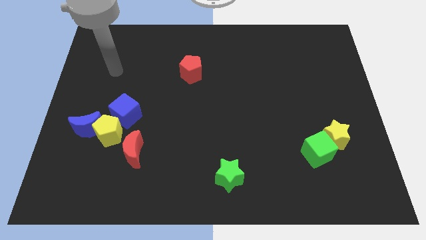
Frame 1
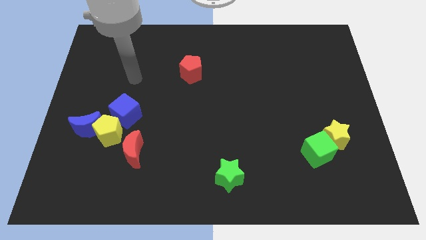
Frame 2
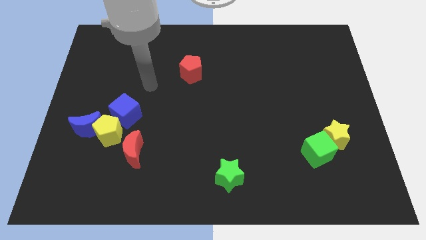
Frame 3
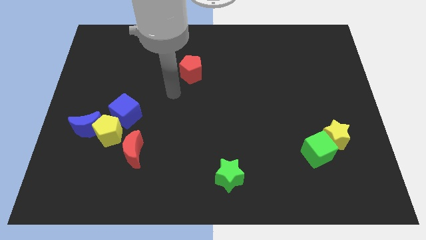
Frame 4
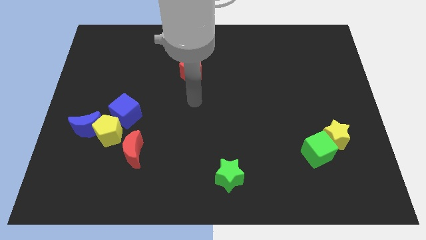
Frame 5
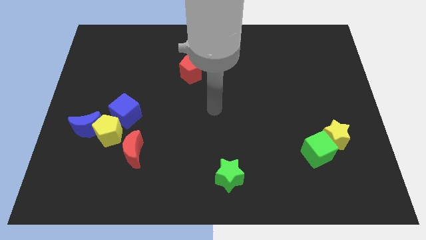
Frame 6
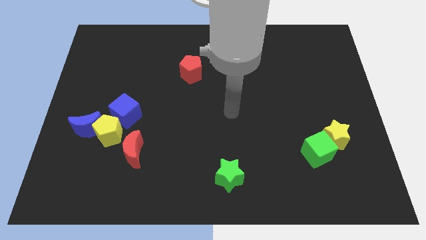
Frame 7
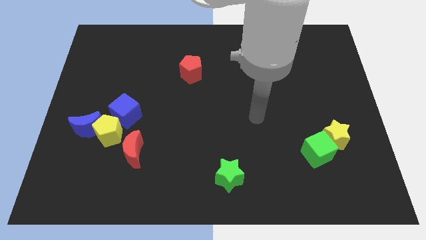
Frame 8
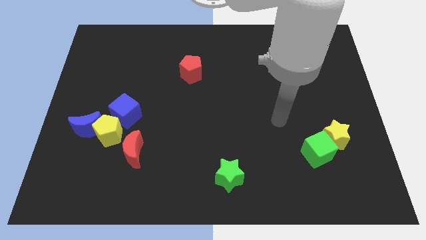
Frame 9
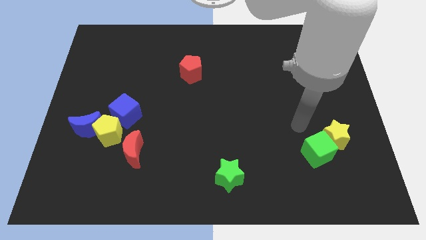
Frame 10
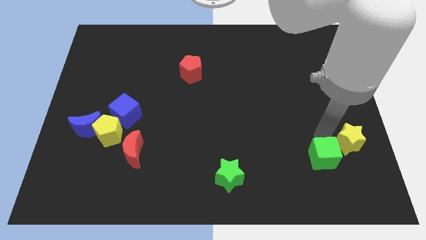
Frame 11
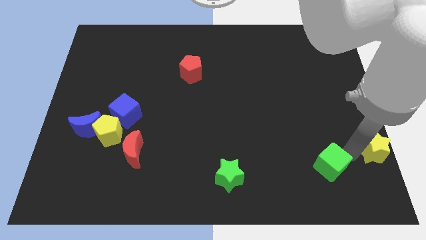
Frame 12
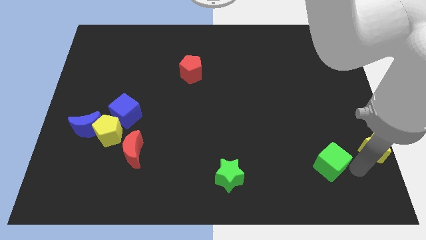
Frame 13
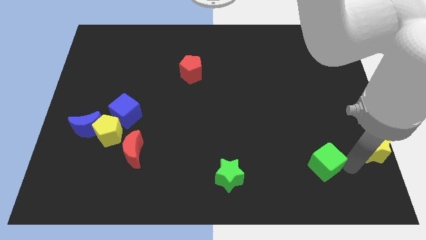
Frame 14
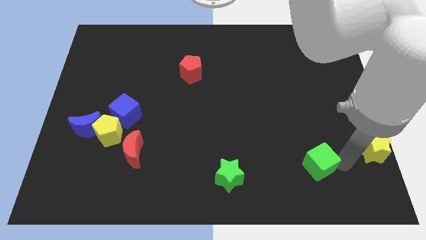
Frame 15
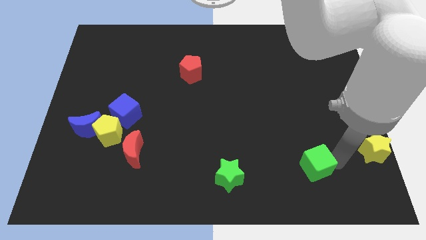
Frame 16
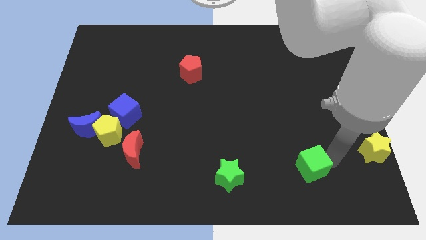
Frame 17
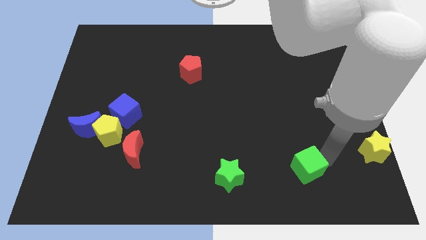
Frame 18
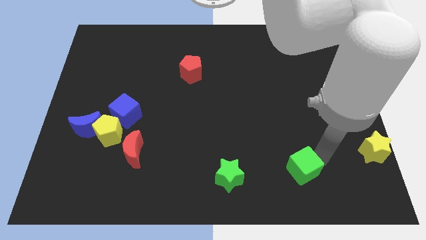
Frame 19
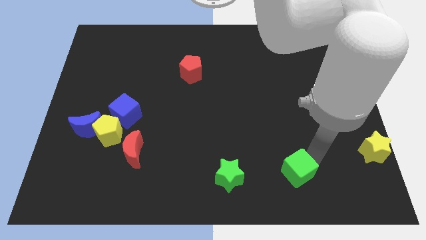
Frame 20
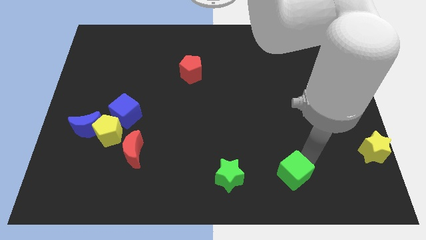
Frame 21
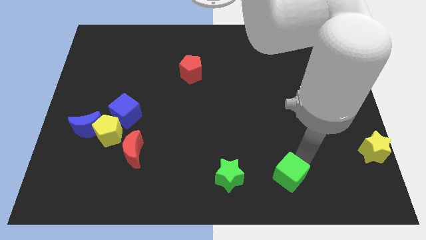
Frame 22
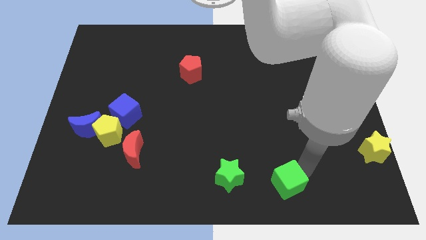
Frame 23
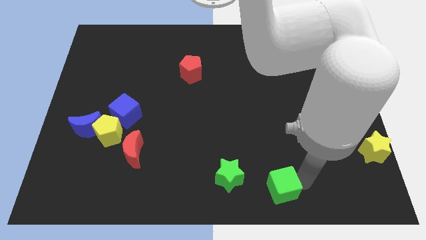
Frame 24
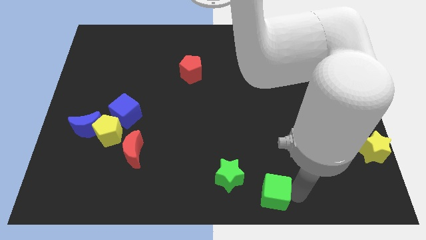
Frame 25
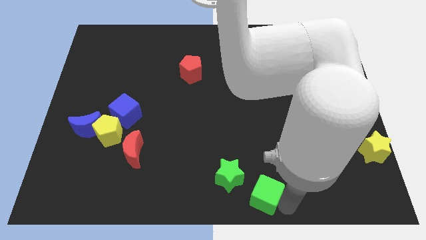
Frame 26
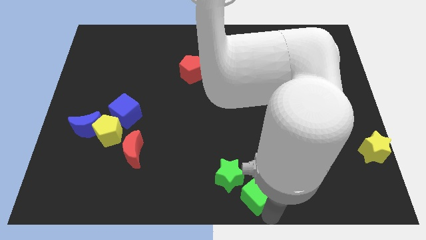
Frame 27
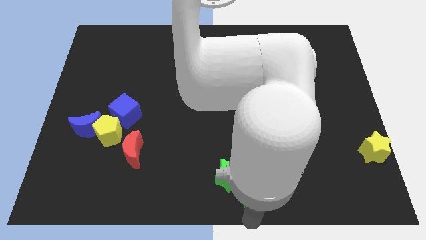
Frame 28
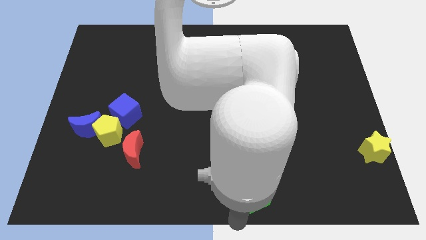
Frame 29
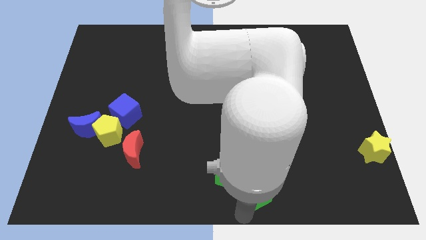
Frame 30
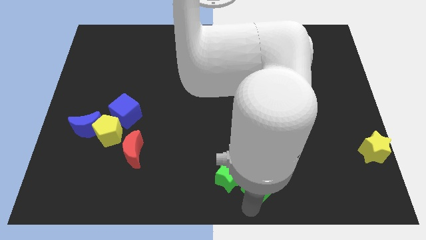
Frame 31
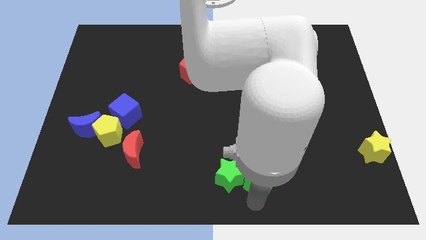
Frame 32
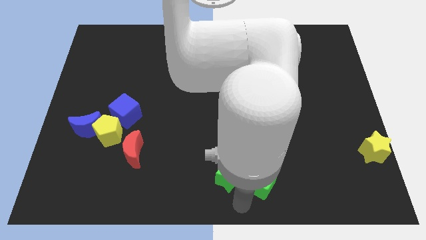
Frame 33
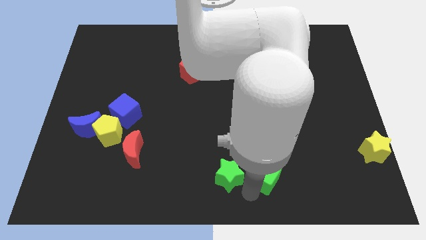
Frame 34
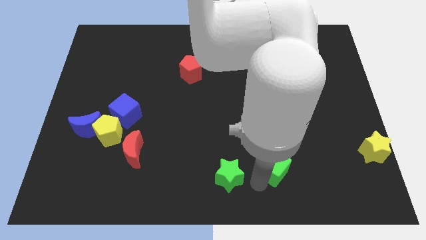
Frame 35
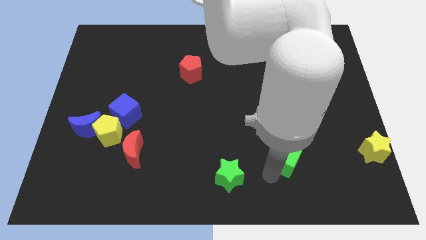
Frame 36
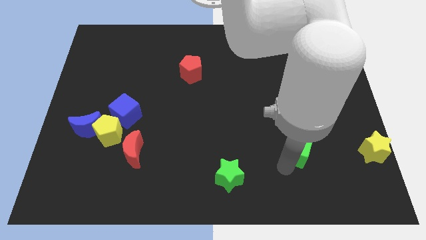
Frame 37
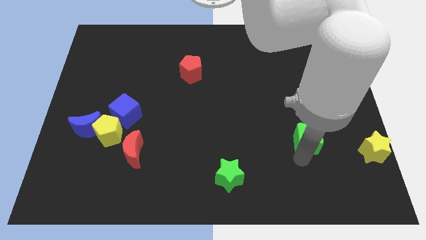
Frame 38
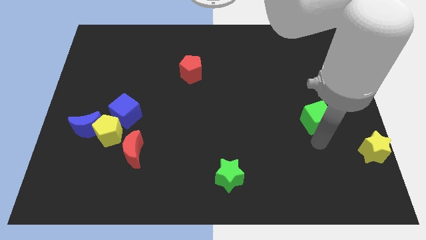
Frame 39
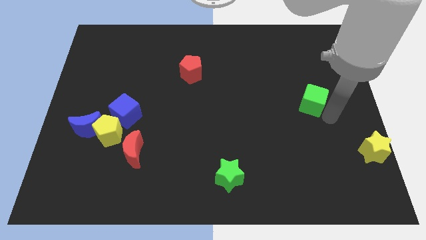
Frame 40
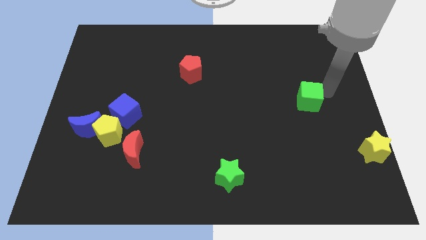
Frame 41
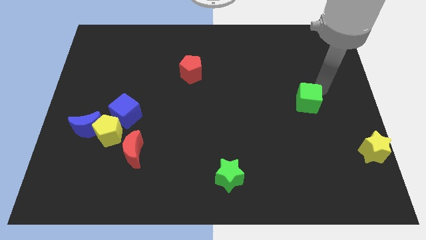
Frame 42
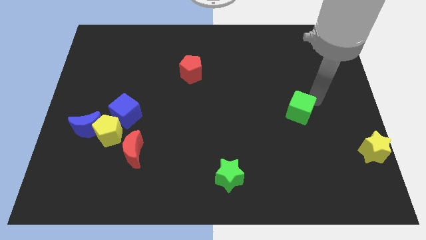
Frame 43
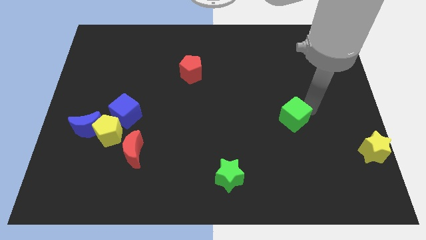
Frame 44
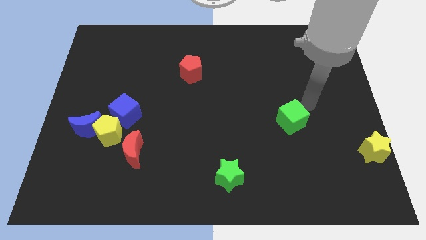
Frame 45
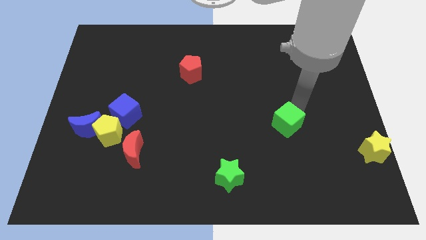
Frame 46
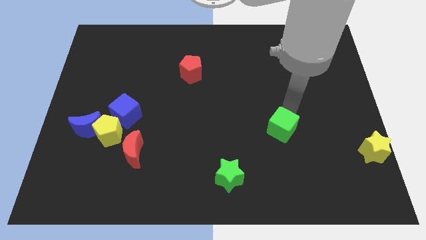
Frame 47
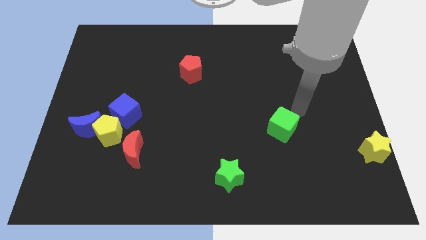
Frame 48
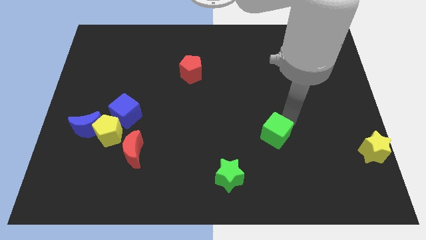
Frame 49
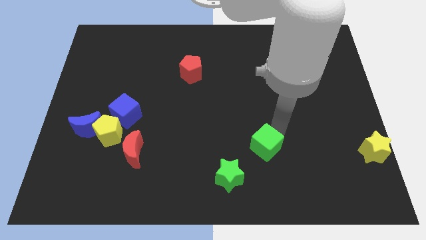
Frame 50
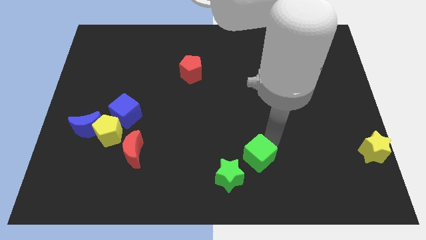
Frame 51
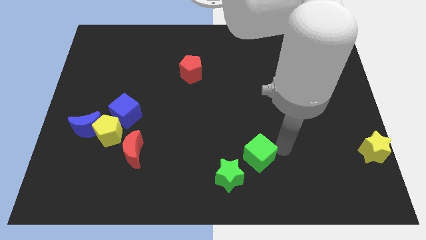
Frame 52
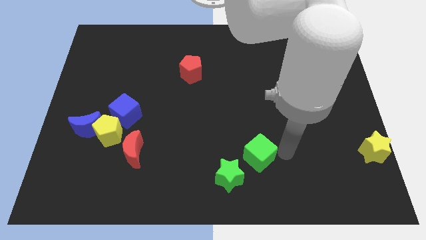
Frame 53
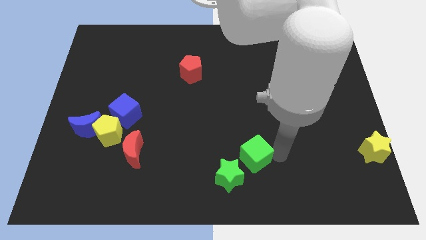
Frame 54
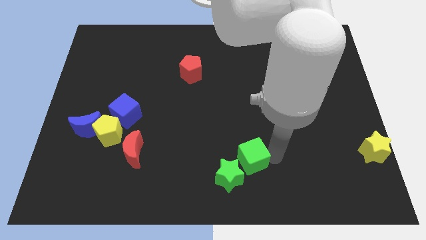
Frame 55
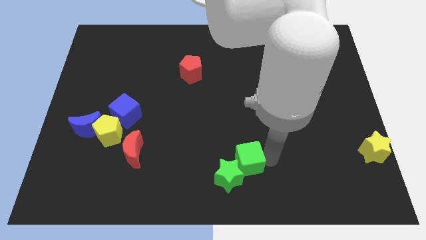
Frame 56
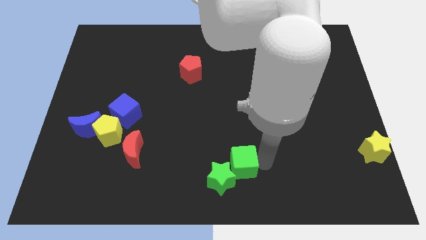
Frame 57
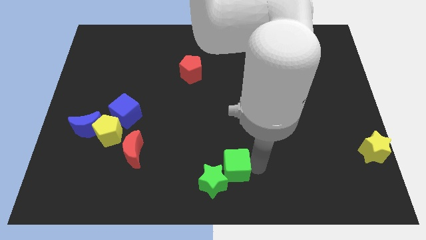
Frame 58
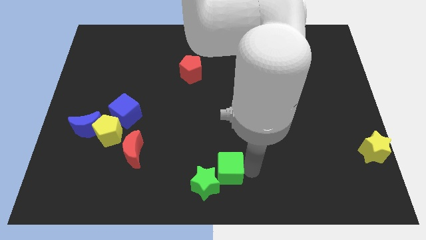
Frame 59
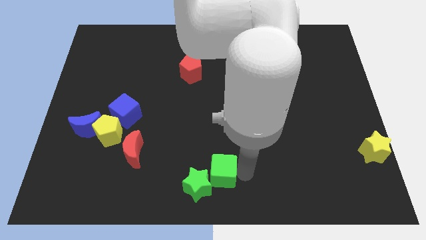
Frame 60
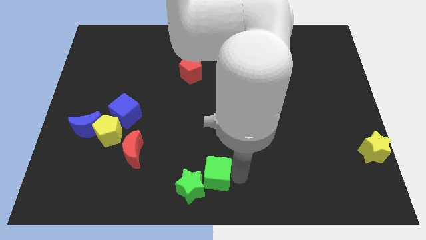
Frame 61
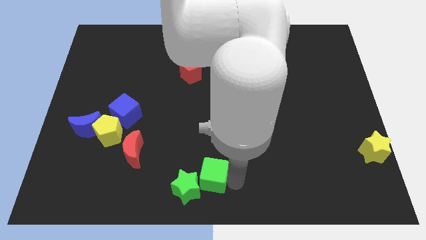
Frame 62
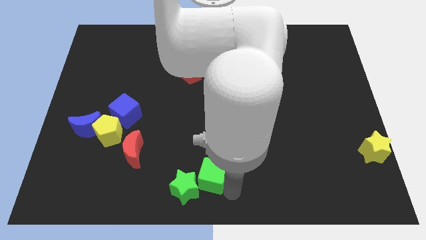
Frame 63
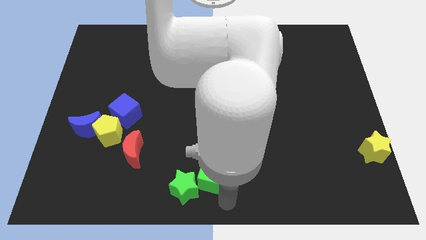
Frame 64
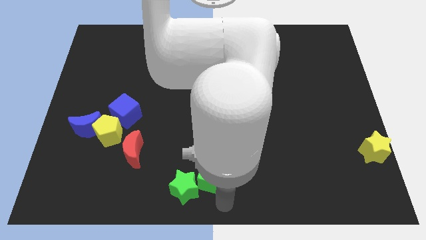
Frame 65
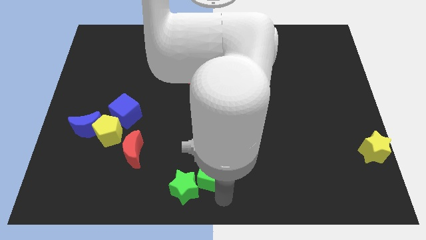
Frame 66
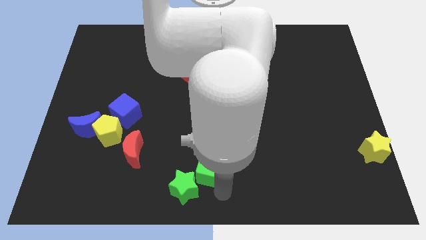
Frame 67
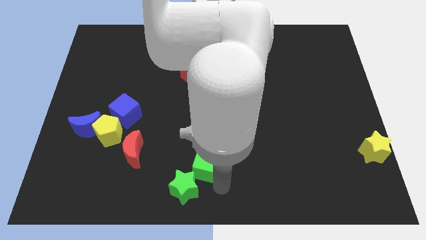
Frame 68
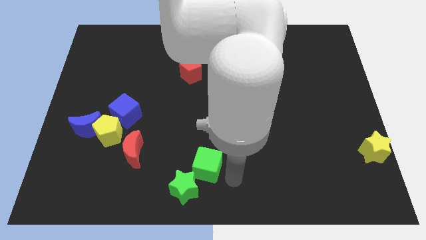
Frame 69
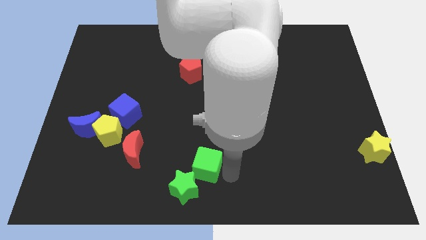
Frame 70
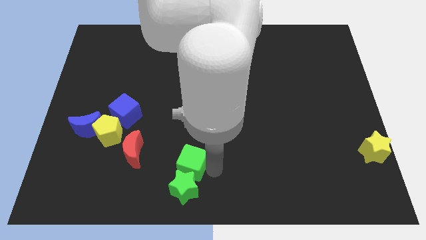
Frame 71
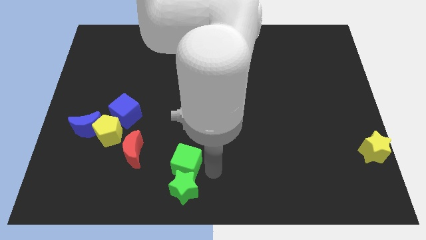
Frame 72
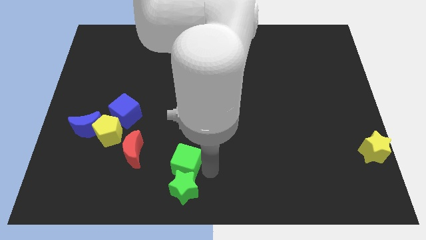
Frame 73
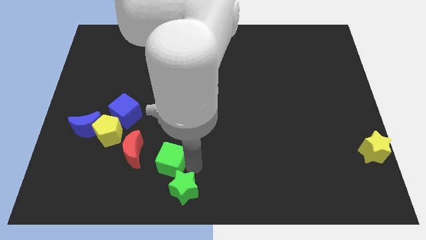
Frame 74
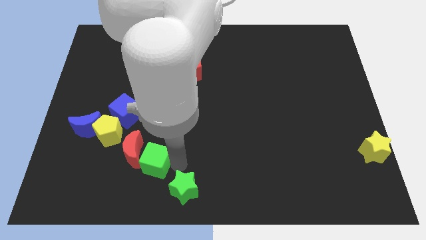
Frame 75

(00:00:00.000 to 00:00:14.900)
move the green cube to the red moon

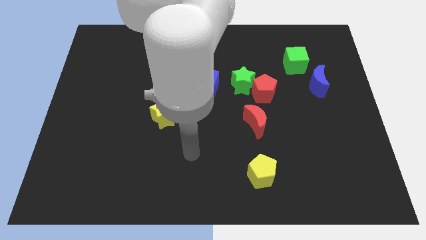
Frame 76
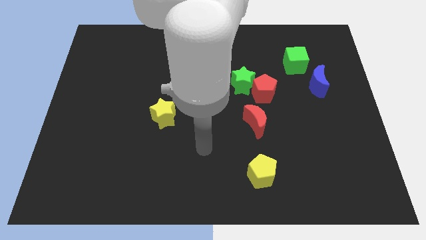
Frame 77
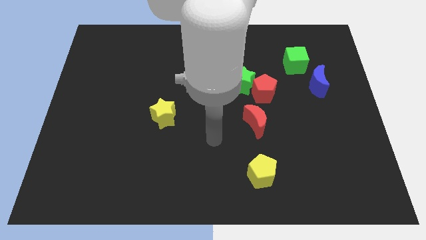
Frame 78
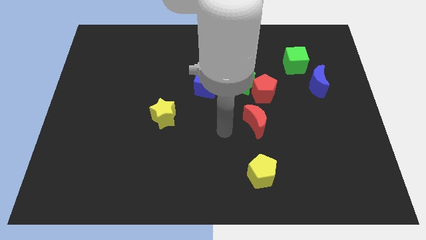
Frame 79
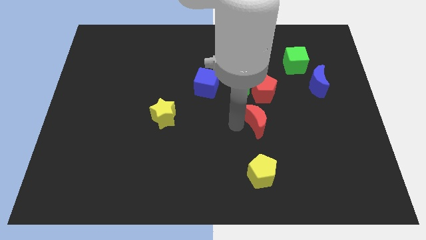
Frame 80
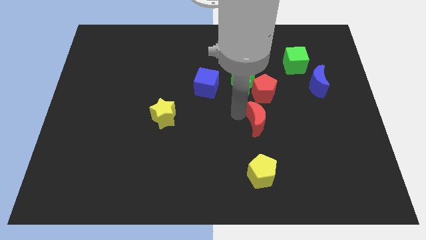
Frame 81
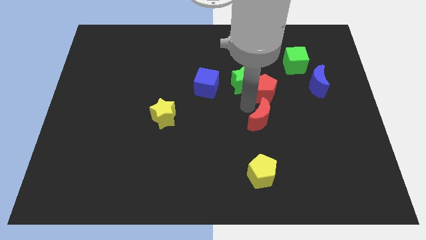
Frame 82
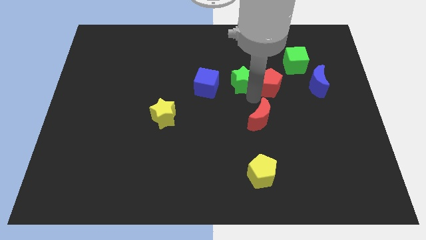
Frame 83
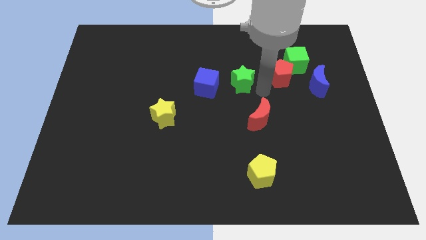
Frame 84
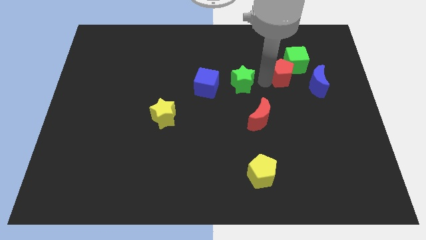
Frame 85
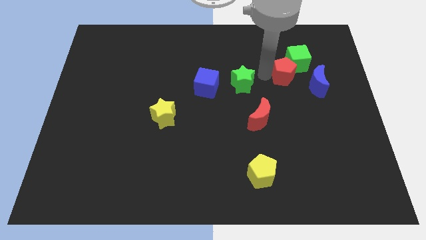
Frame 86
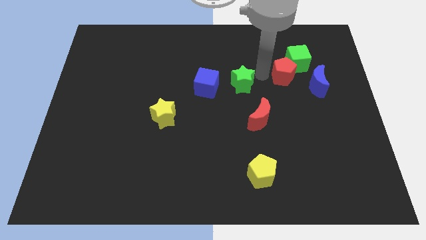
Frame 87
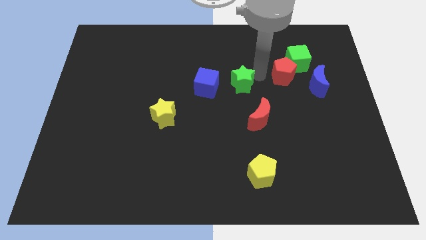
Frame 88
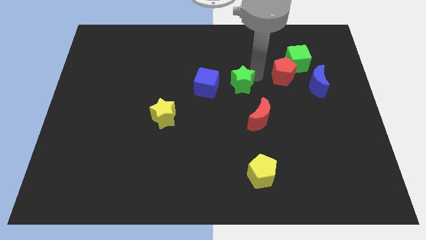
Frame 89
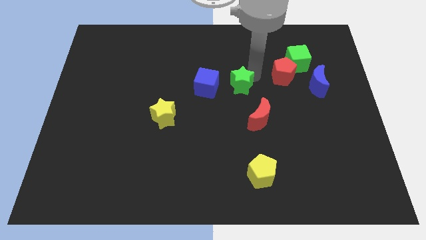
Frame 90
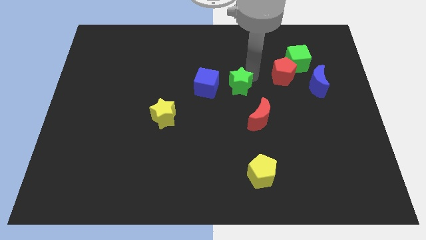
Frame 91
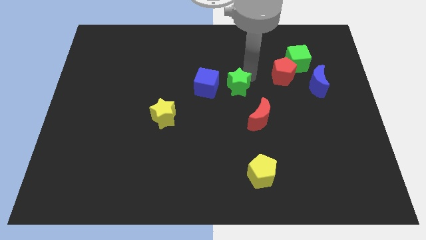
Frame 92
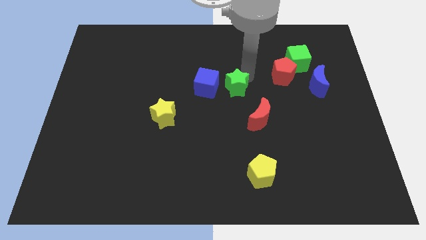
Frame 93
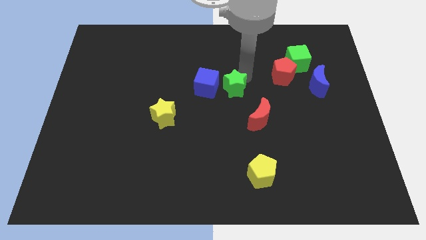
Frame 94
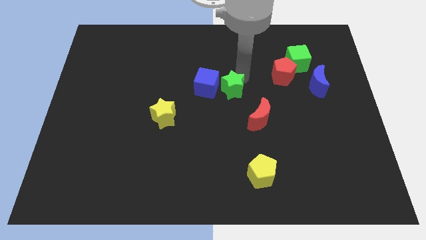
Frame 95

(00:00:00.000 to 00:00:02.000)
push the green star next to the blue cube
